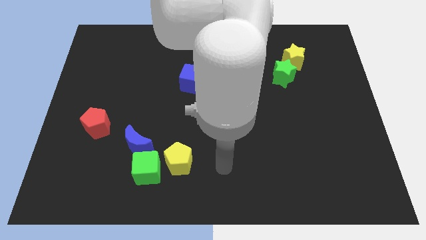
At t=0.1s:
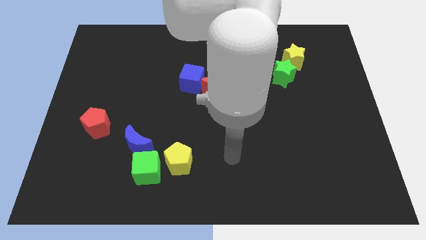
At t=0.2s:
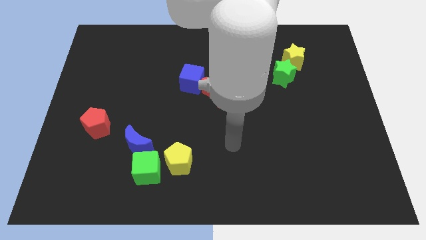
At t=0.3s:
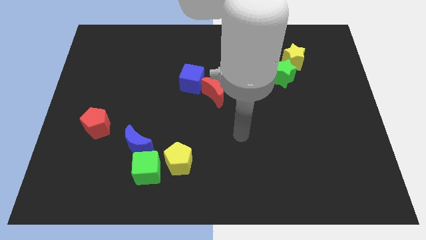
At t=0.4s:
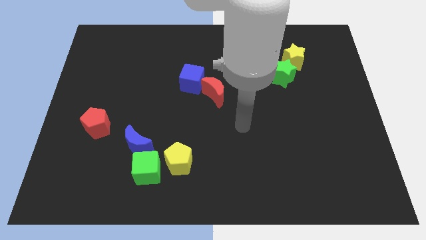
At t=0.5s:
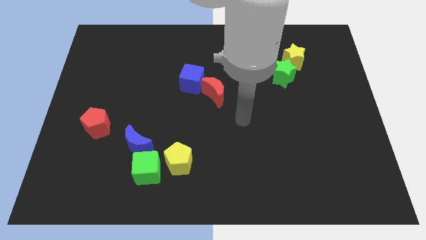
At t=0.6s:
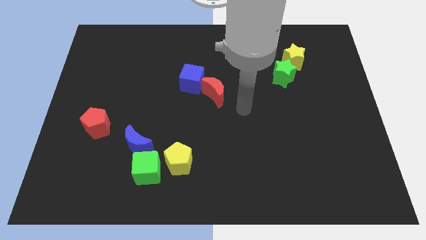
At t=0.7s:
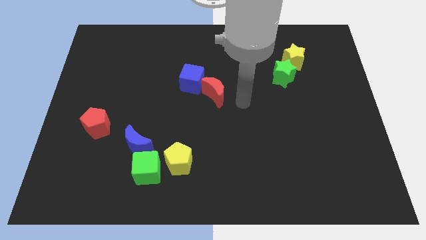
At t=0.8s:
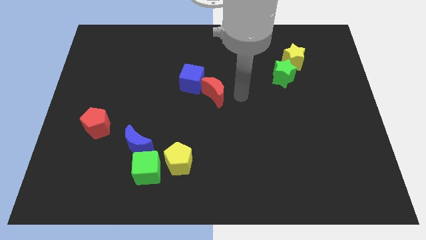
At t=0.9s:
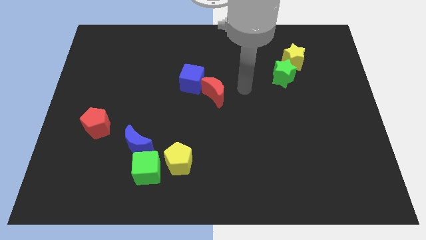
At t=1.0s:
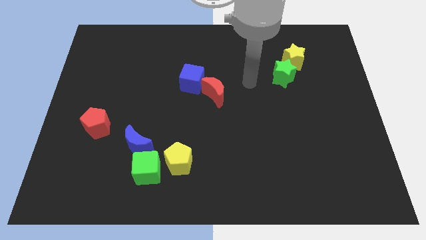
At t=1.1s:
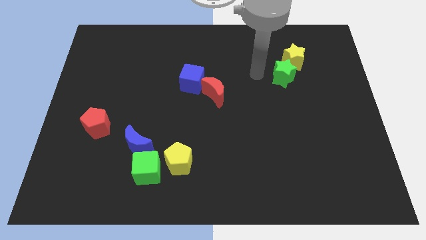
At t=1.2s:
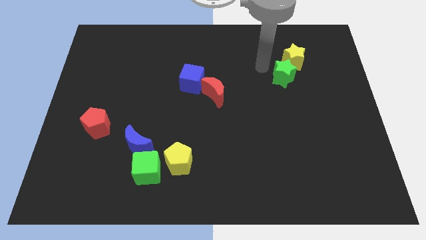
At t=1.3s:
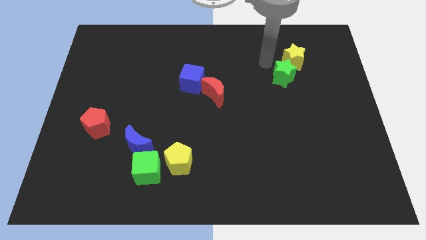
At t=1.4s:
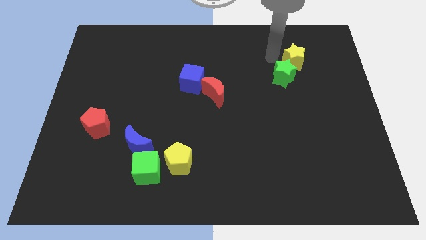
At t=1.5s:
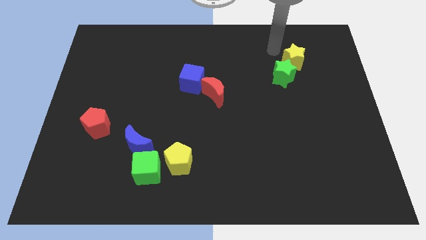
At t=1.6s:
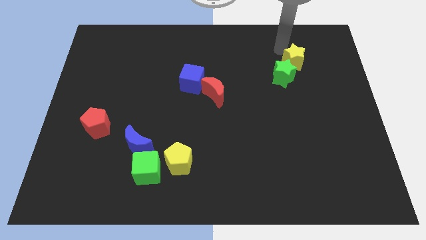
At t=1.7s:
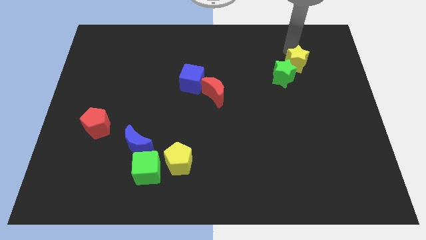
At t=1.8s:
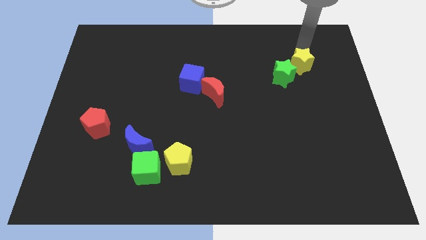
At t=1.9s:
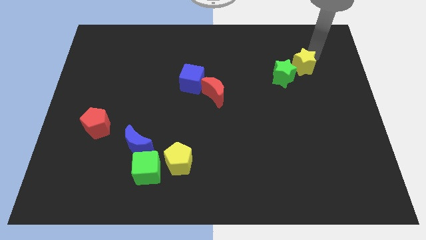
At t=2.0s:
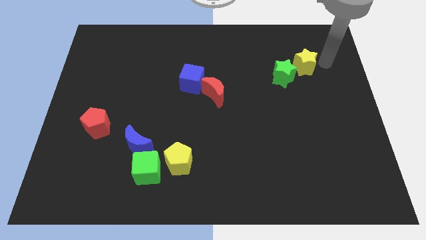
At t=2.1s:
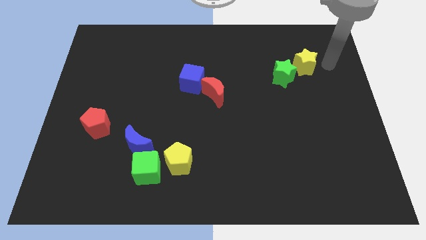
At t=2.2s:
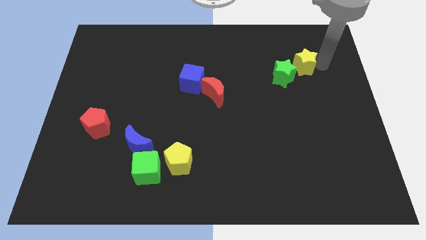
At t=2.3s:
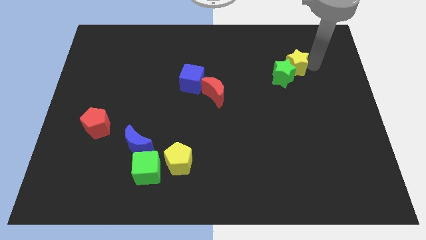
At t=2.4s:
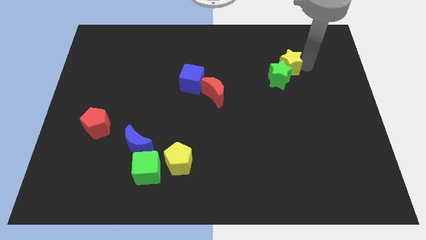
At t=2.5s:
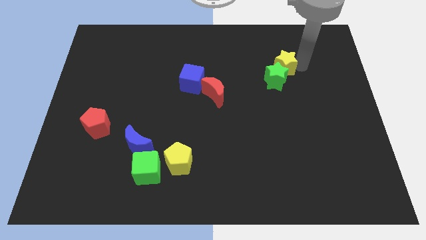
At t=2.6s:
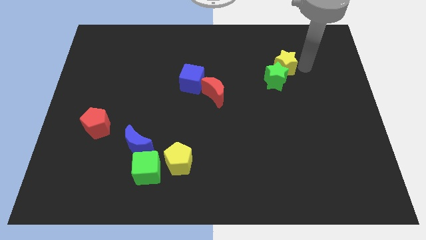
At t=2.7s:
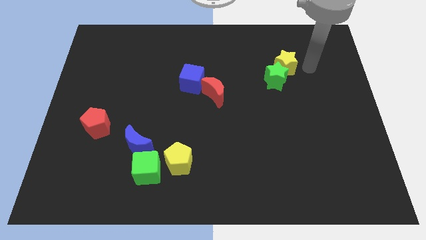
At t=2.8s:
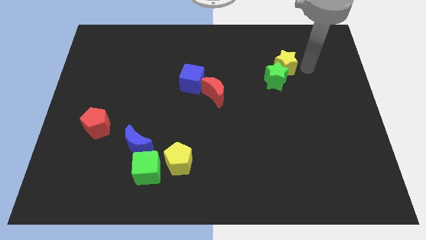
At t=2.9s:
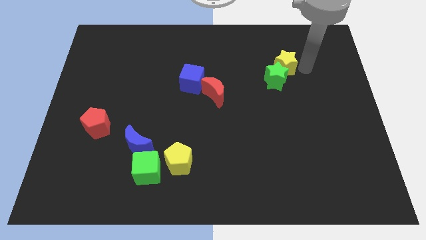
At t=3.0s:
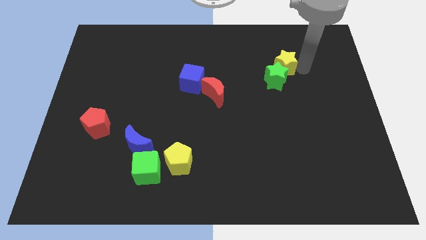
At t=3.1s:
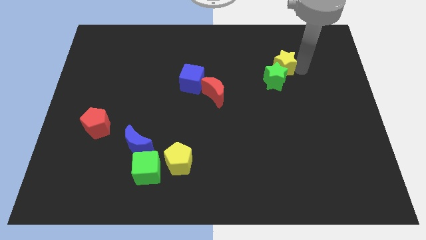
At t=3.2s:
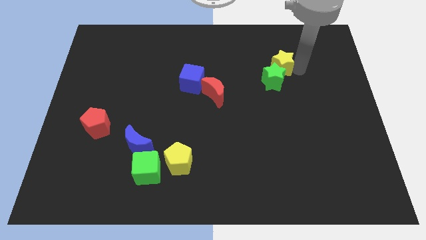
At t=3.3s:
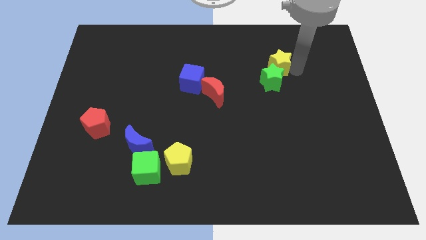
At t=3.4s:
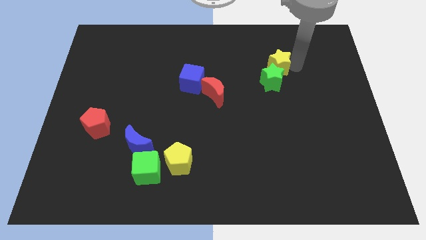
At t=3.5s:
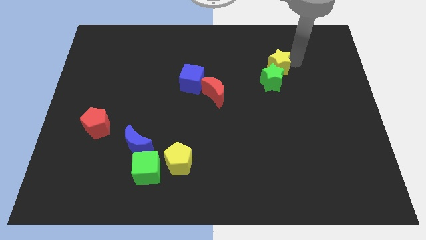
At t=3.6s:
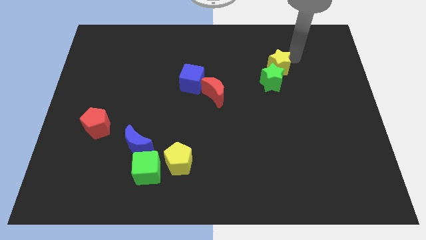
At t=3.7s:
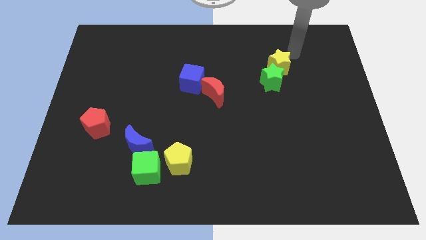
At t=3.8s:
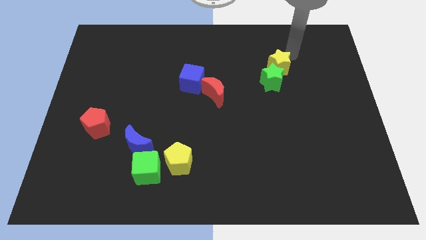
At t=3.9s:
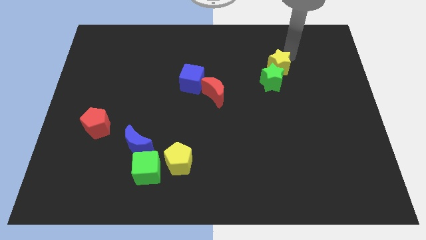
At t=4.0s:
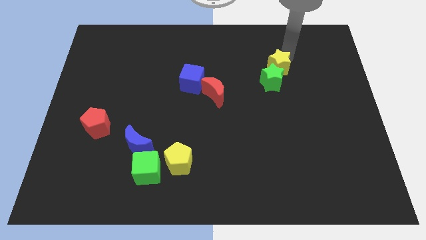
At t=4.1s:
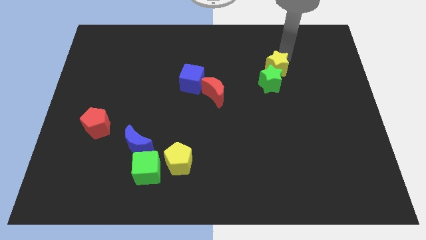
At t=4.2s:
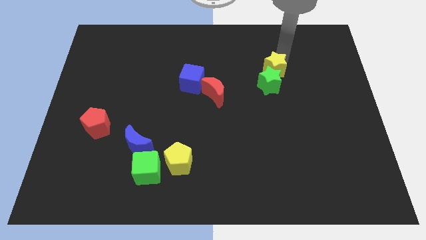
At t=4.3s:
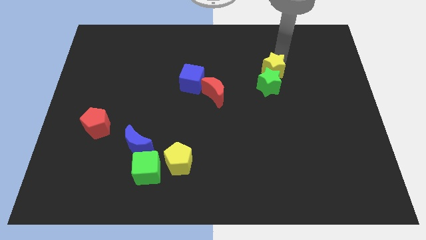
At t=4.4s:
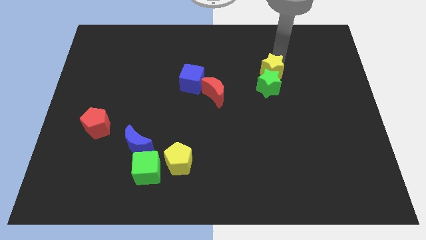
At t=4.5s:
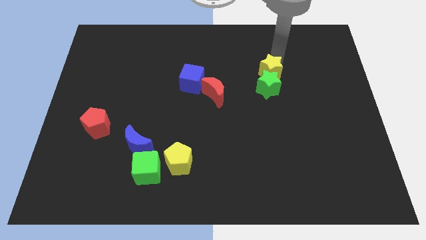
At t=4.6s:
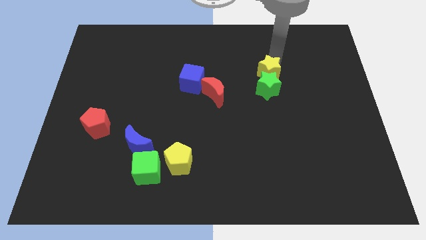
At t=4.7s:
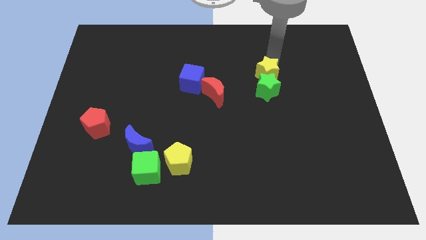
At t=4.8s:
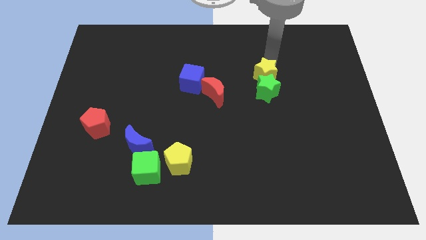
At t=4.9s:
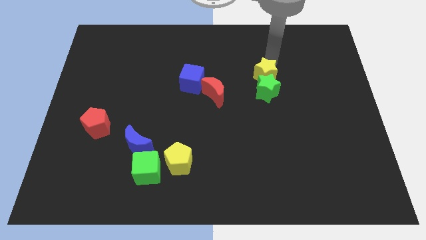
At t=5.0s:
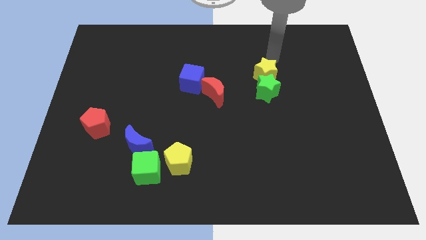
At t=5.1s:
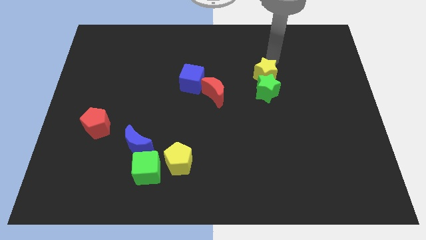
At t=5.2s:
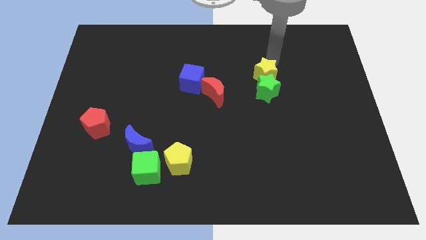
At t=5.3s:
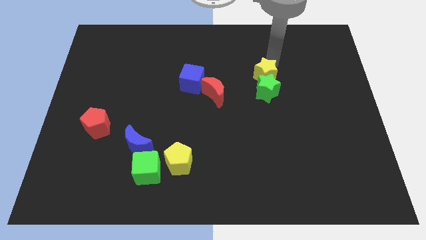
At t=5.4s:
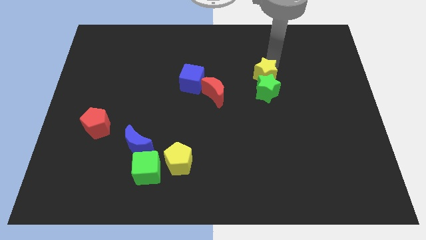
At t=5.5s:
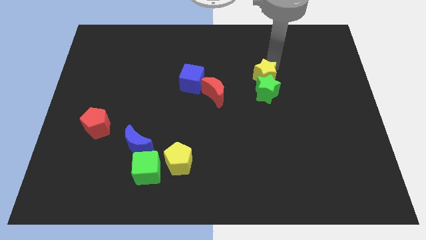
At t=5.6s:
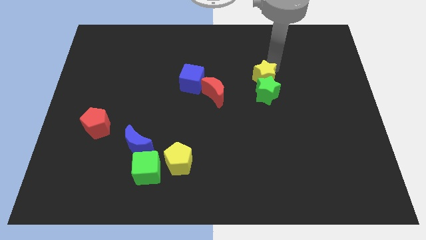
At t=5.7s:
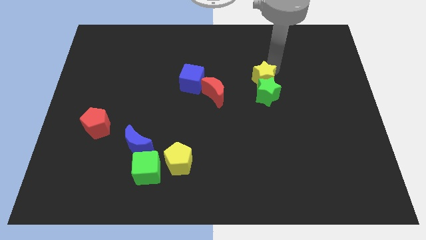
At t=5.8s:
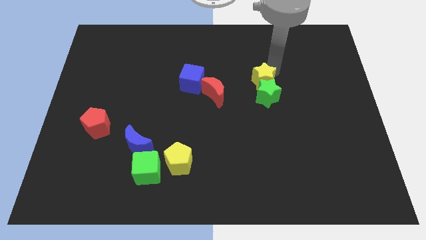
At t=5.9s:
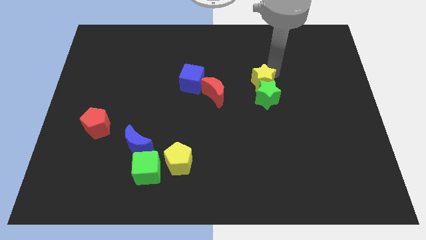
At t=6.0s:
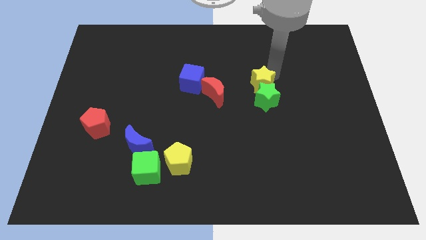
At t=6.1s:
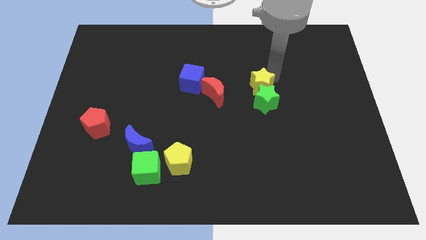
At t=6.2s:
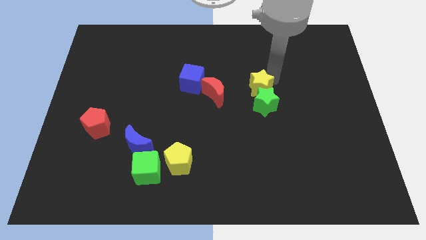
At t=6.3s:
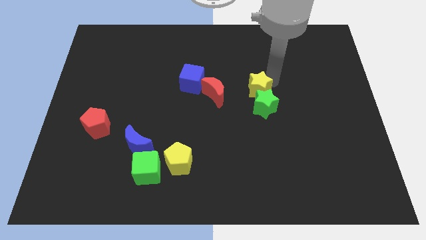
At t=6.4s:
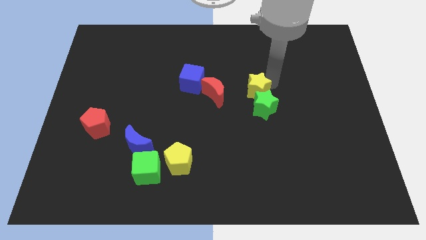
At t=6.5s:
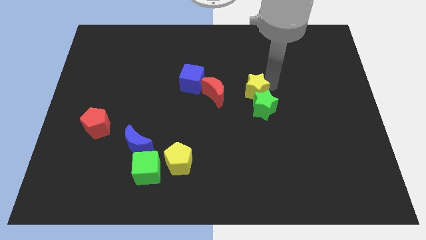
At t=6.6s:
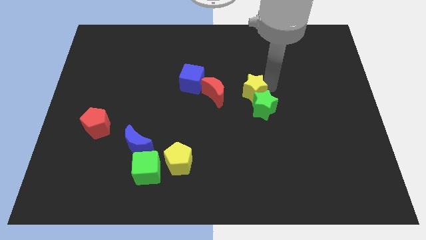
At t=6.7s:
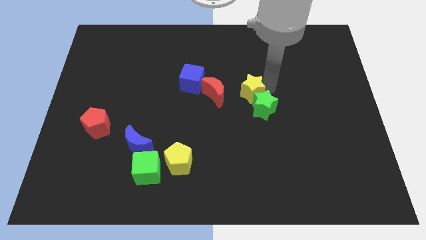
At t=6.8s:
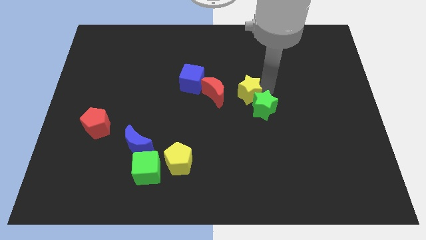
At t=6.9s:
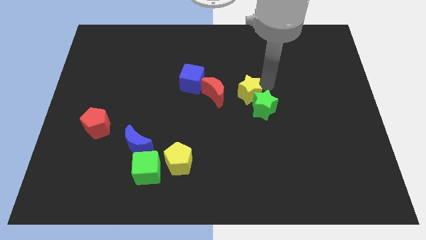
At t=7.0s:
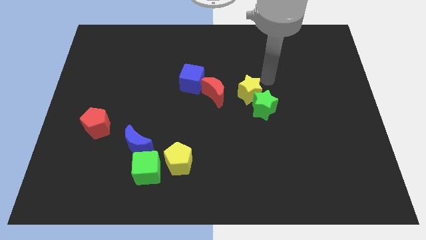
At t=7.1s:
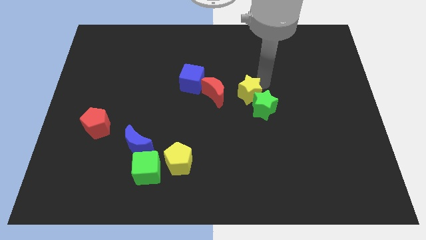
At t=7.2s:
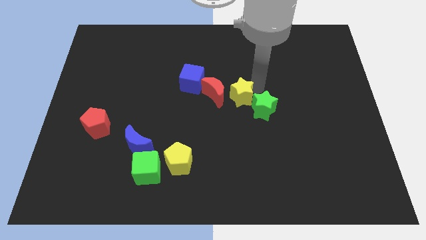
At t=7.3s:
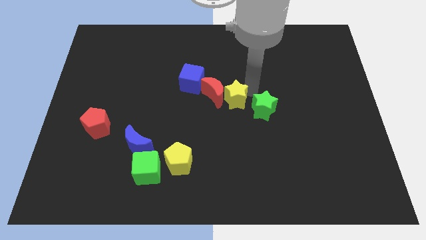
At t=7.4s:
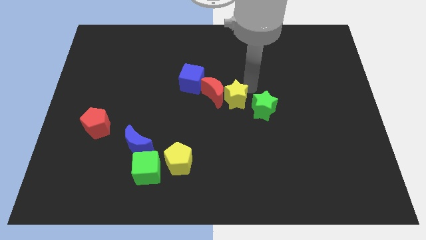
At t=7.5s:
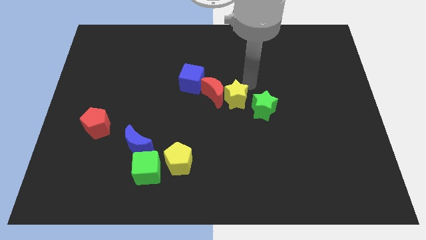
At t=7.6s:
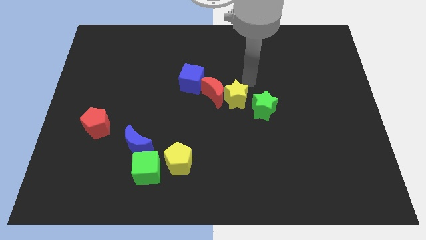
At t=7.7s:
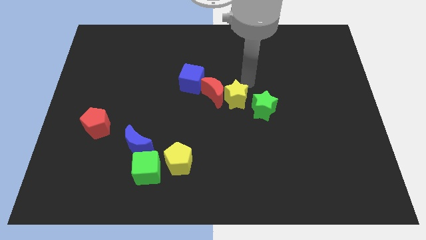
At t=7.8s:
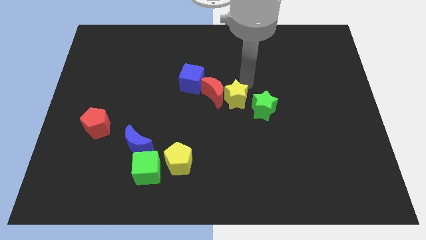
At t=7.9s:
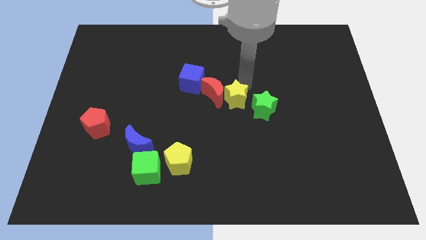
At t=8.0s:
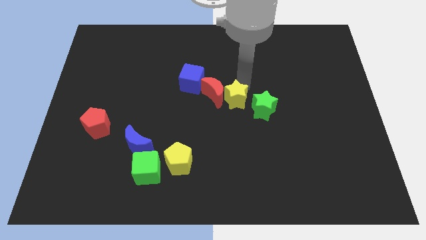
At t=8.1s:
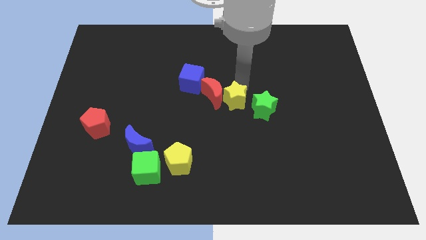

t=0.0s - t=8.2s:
push the yellow star diagonally downwards and to the left
